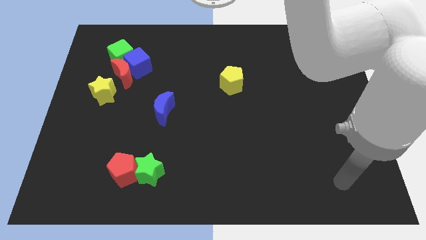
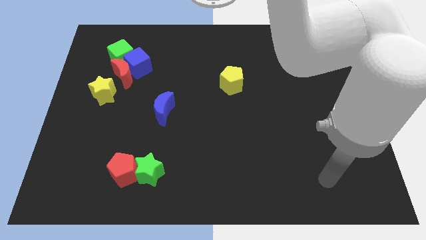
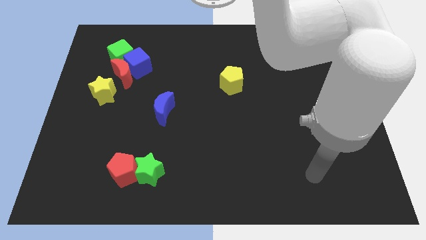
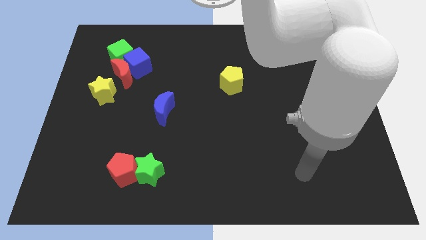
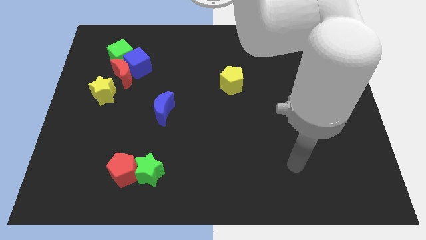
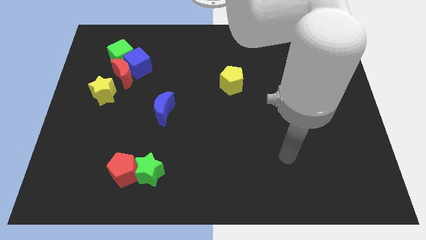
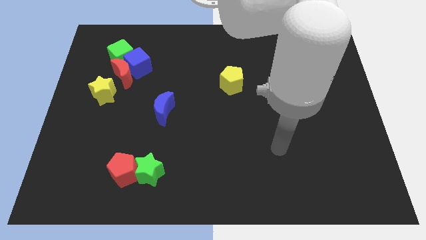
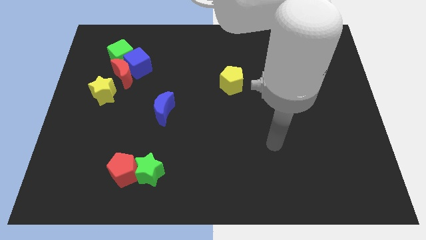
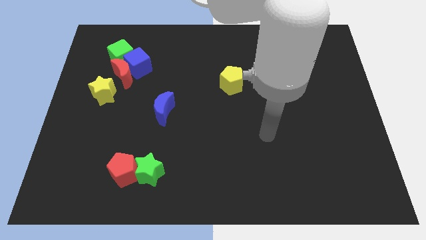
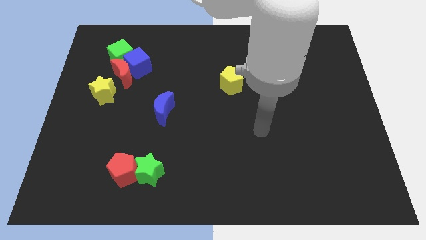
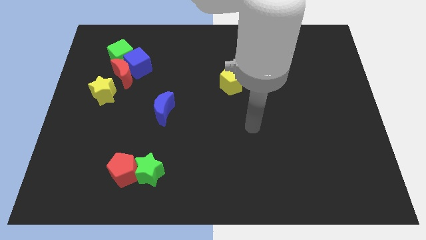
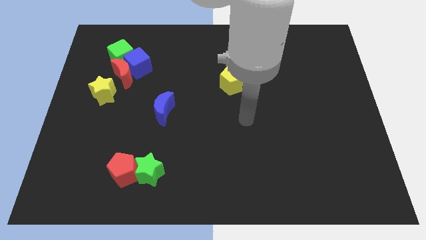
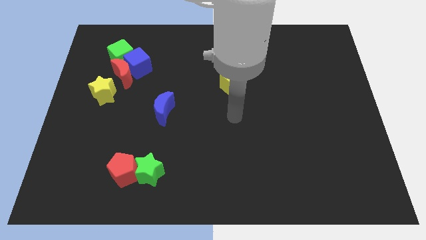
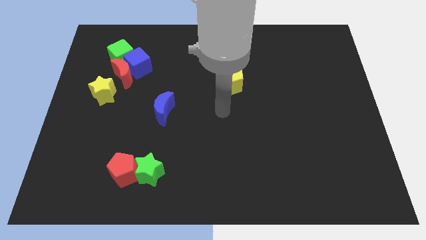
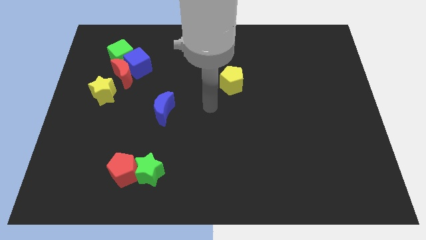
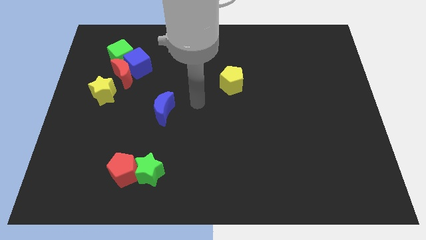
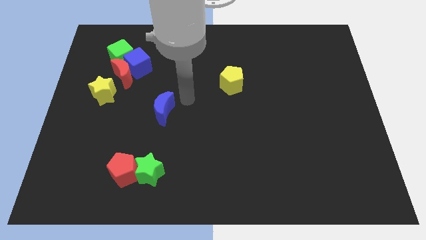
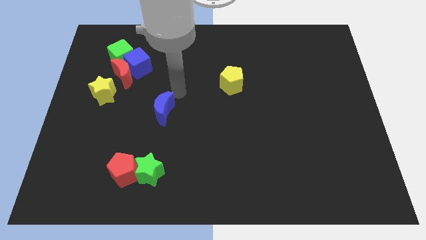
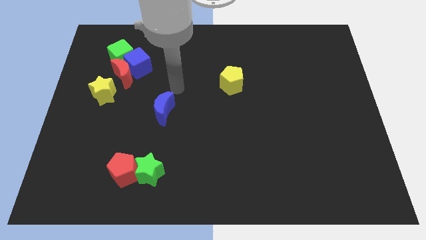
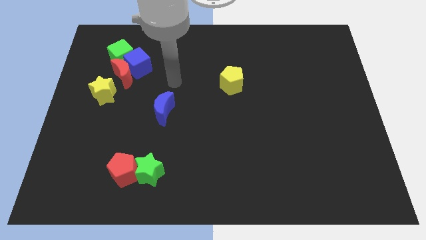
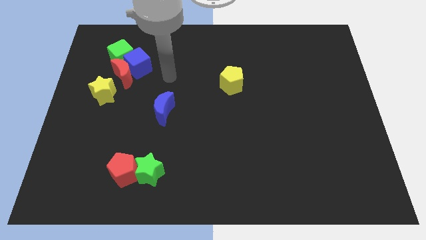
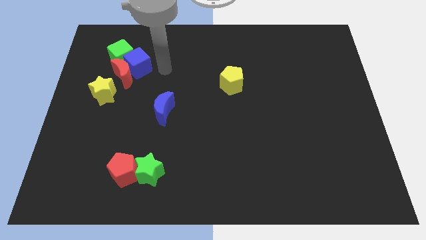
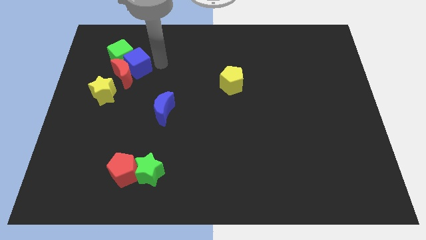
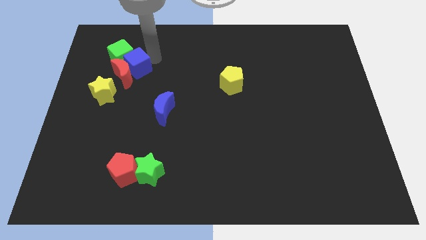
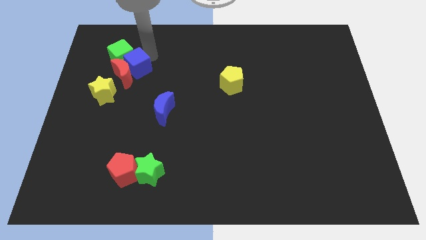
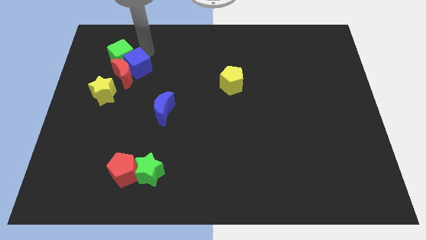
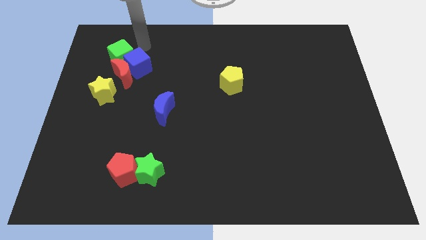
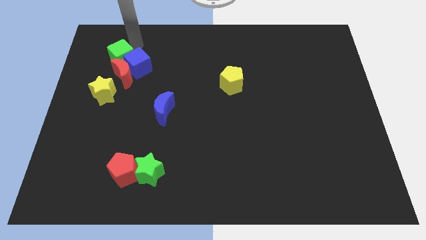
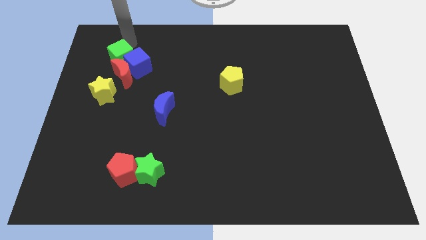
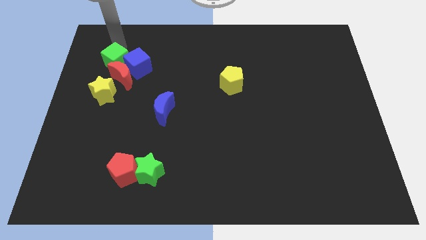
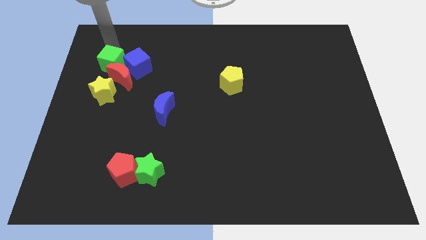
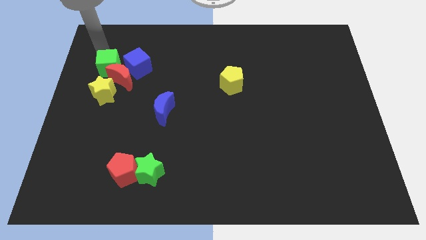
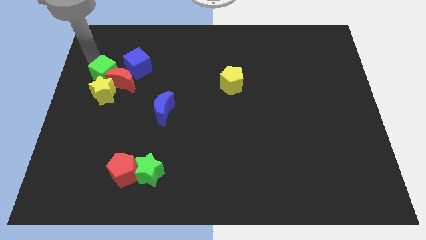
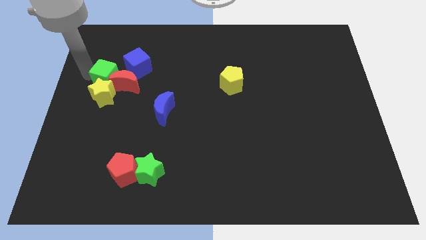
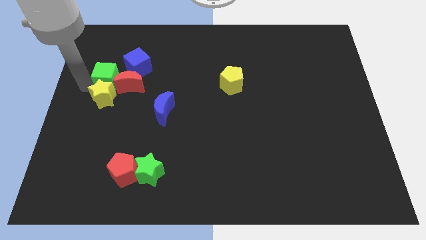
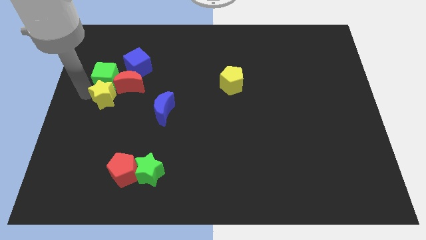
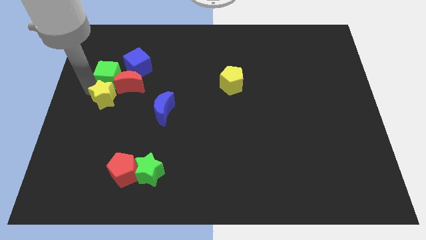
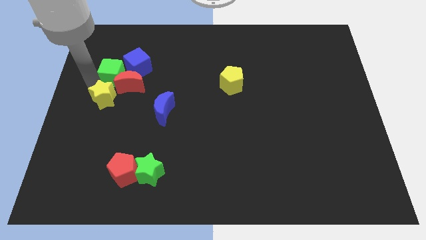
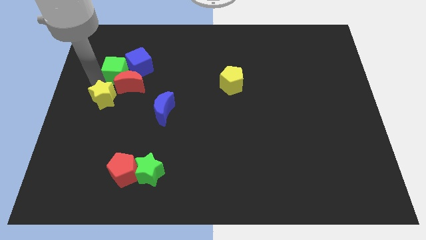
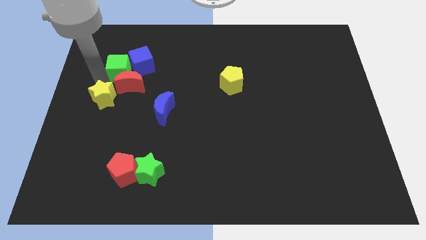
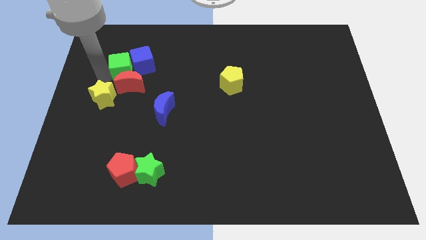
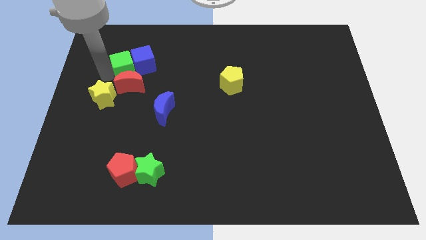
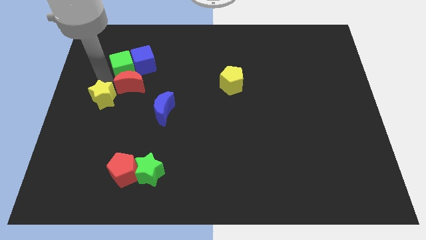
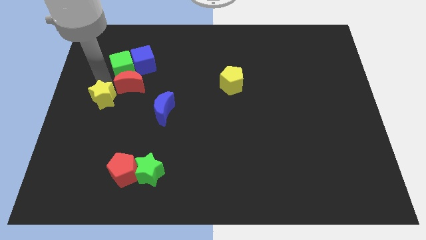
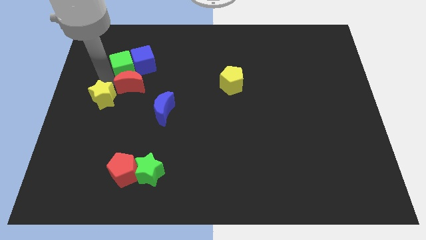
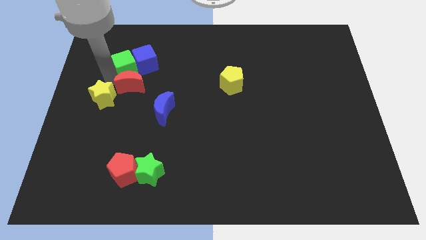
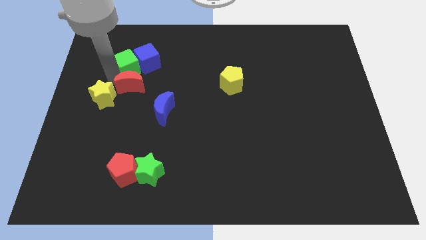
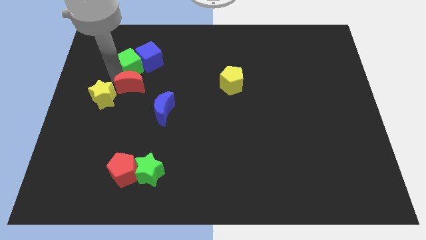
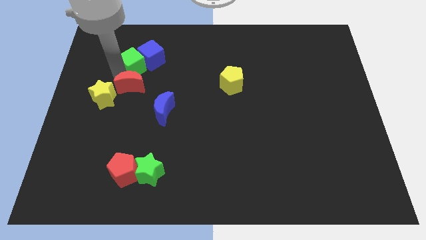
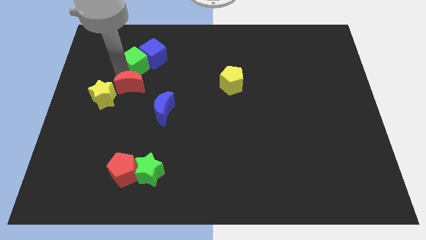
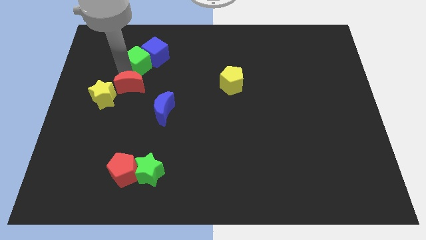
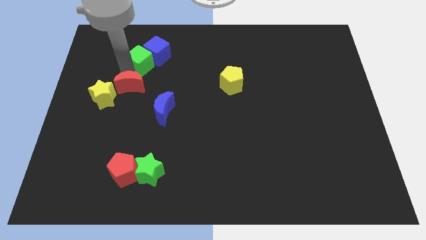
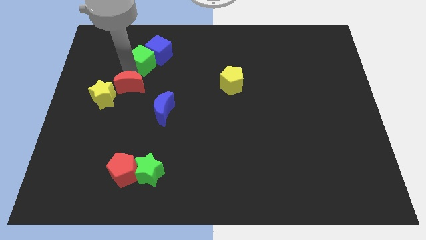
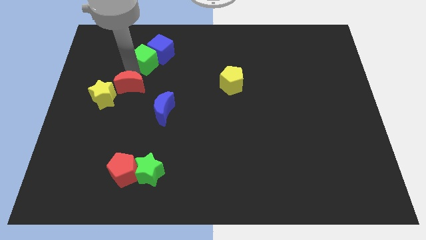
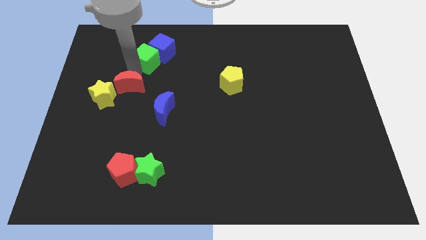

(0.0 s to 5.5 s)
push the green cube a bit right

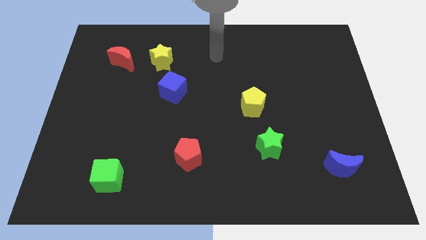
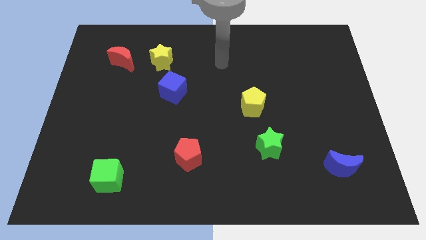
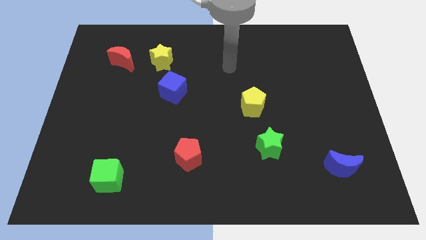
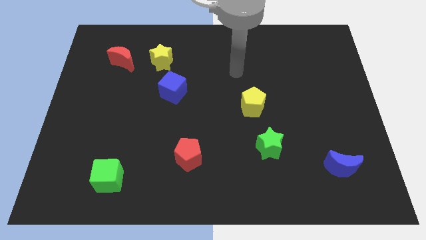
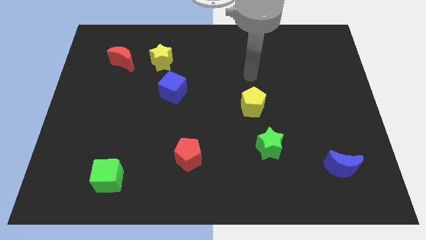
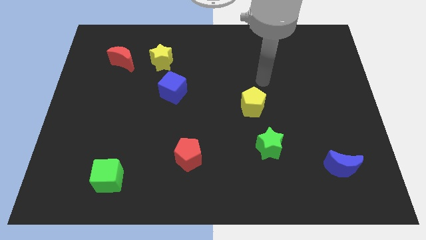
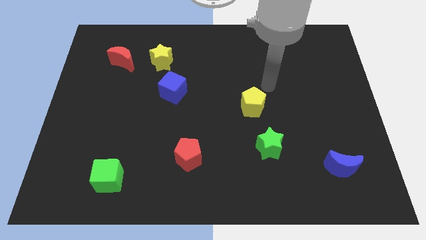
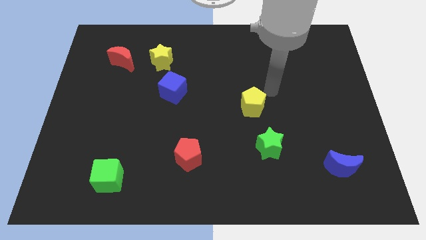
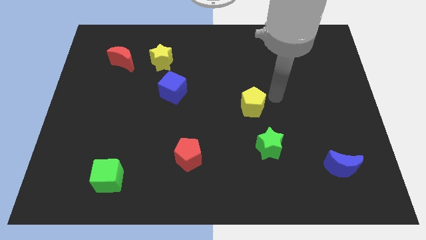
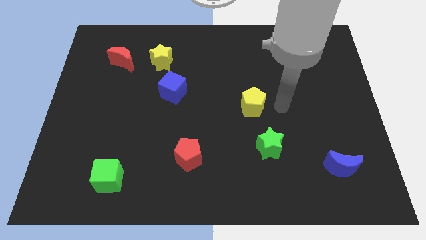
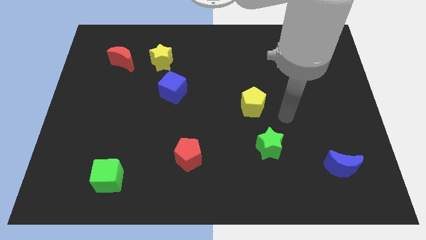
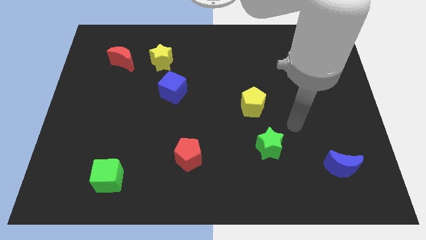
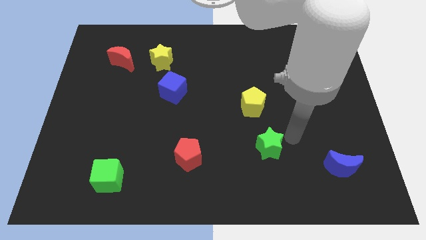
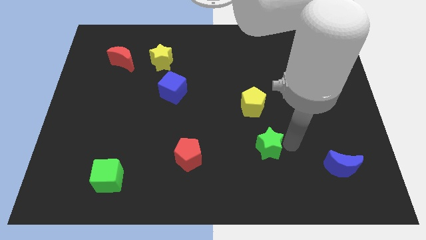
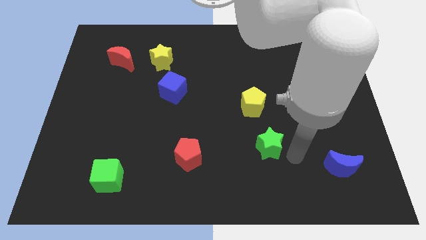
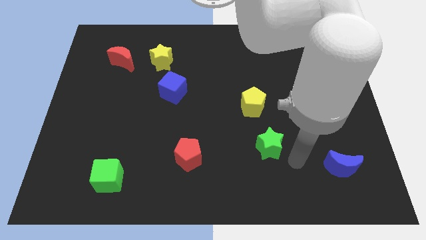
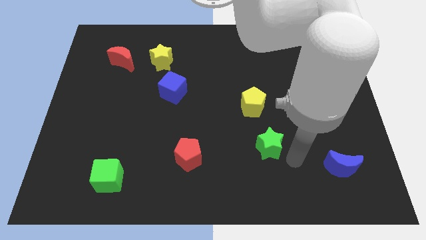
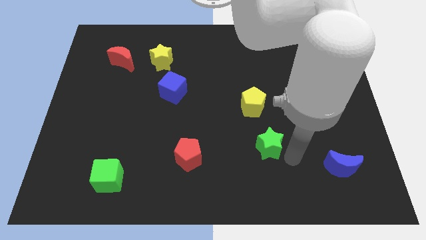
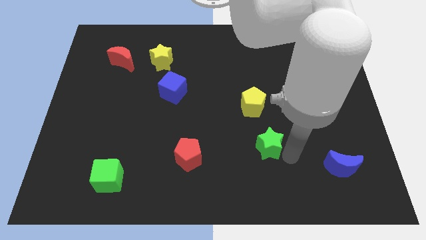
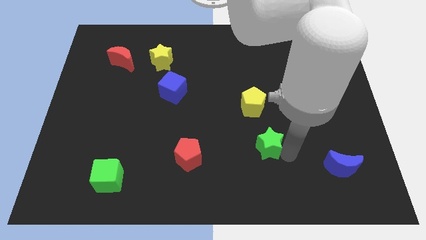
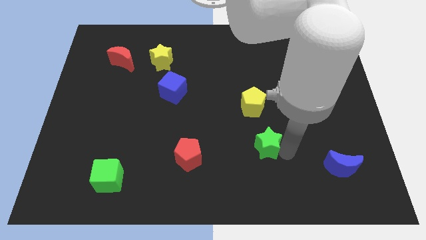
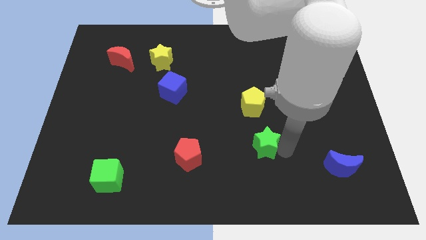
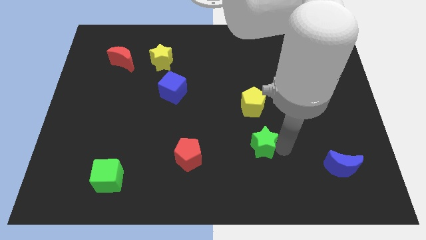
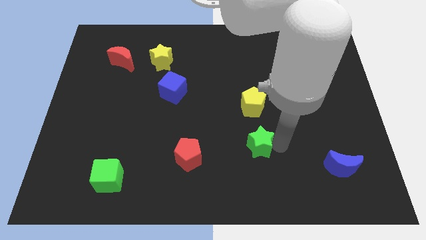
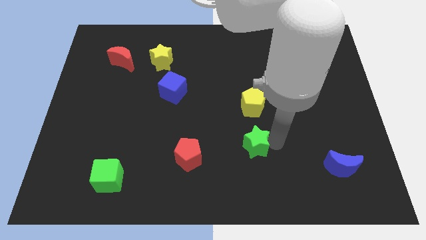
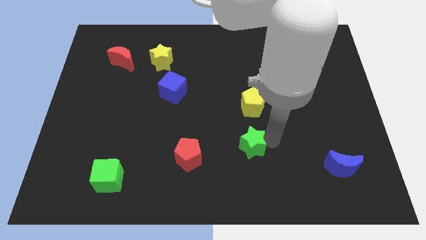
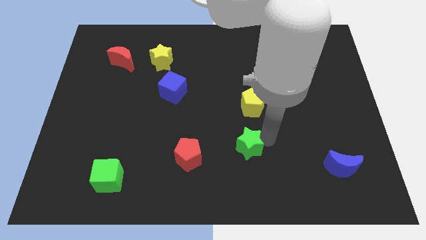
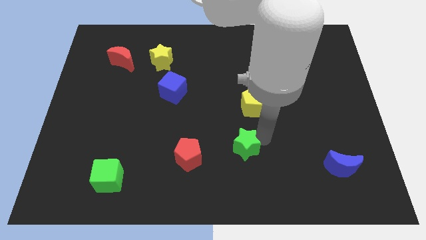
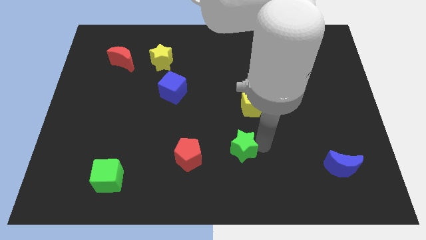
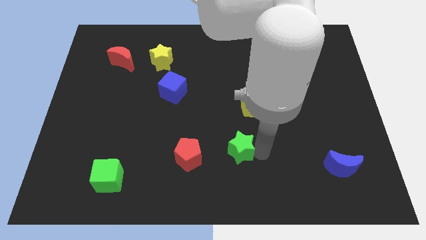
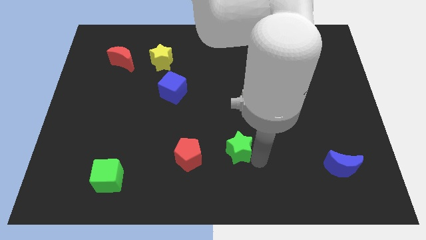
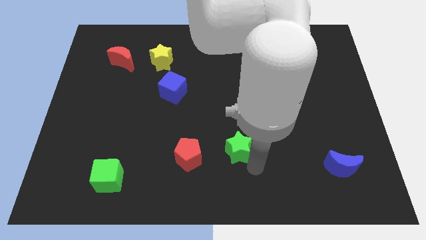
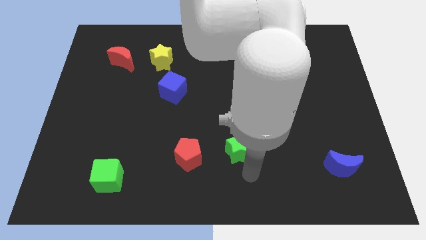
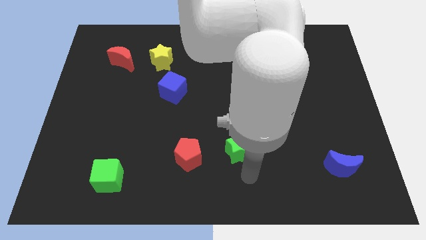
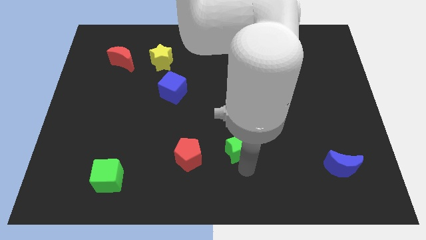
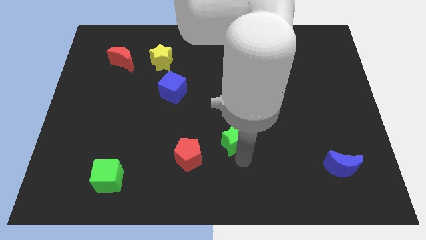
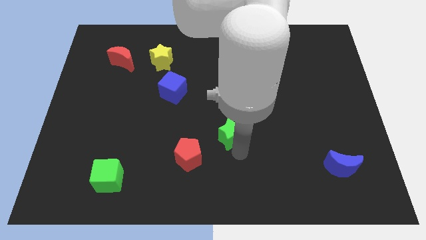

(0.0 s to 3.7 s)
slide the green star a bit upwards and left diagonally
